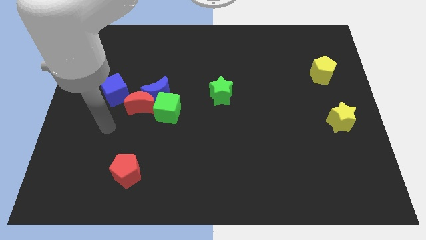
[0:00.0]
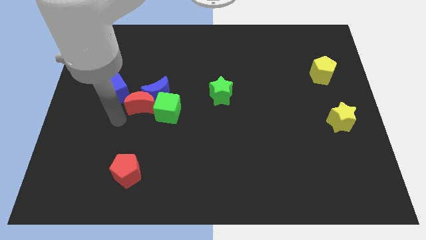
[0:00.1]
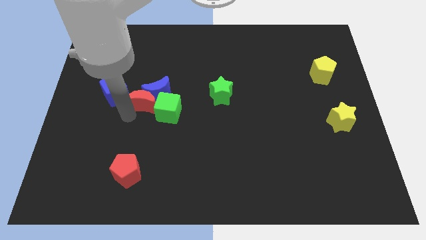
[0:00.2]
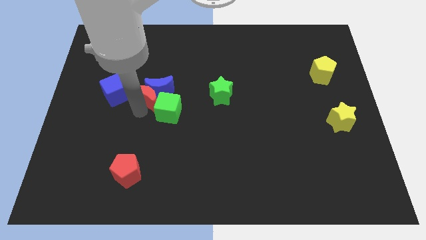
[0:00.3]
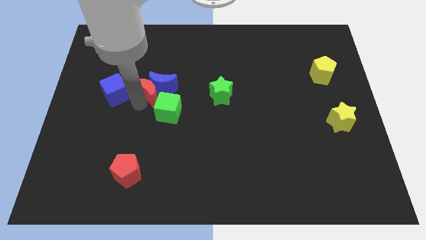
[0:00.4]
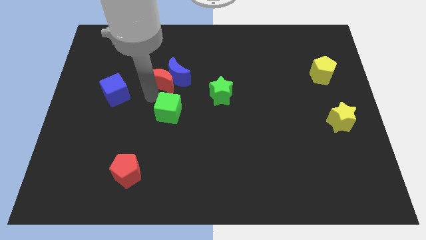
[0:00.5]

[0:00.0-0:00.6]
pull the green cube apart from the blue moon and red moon

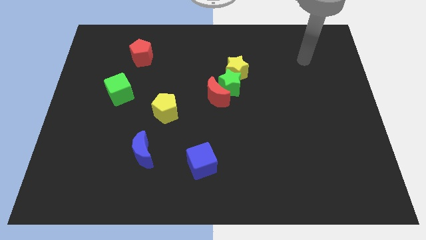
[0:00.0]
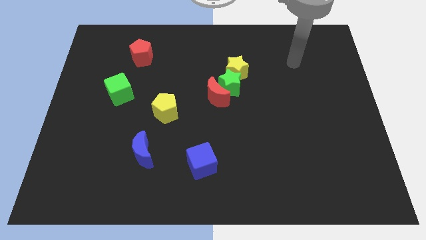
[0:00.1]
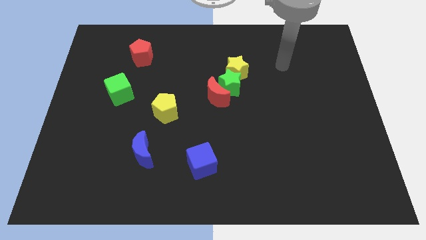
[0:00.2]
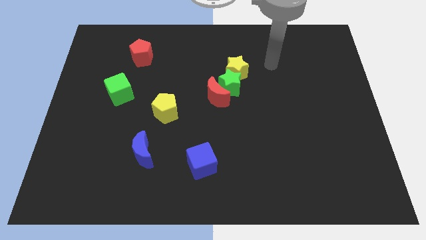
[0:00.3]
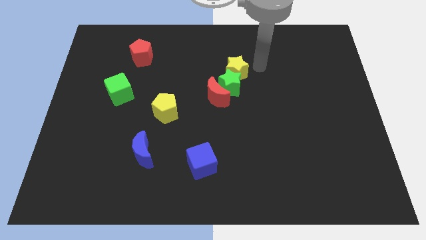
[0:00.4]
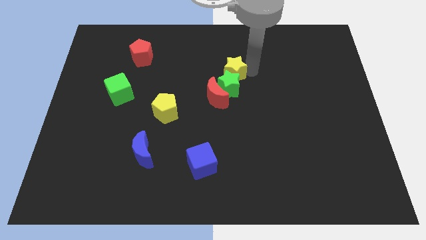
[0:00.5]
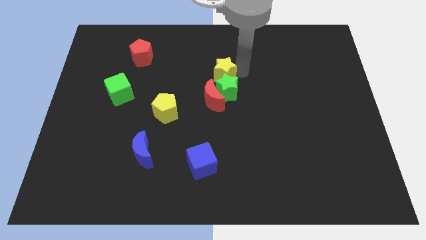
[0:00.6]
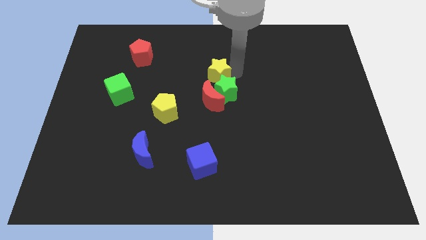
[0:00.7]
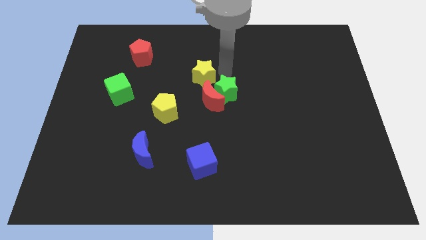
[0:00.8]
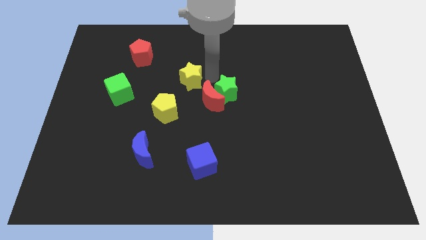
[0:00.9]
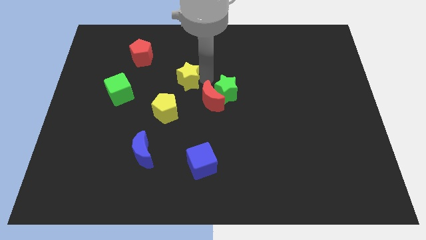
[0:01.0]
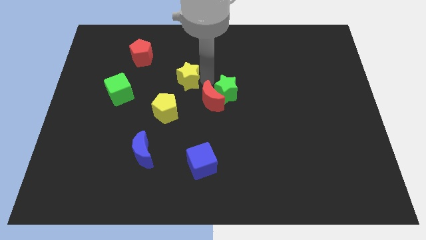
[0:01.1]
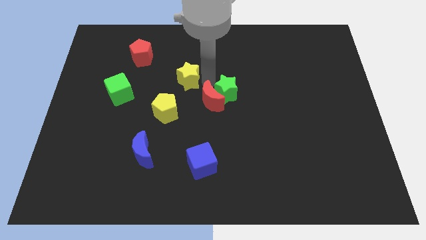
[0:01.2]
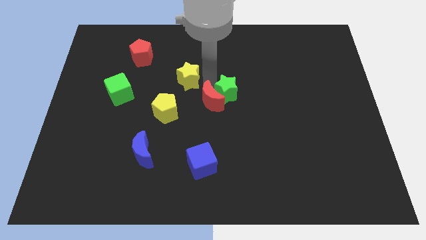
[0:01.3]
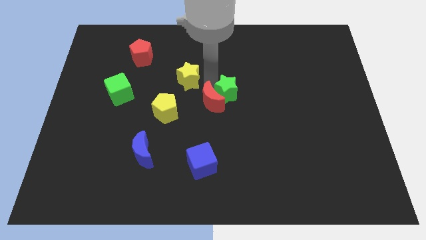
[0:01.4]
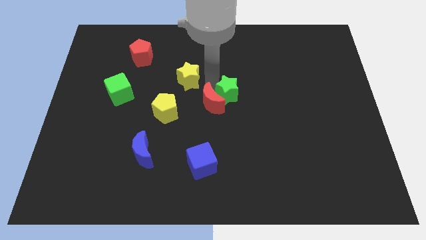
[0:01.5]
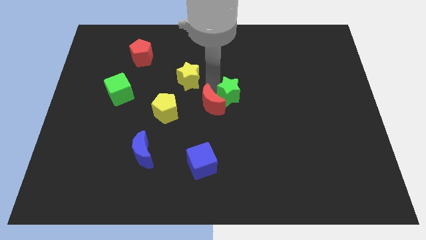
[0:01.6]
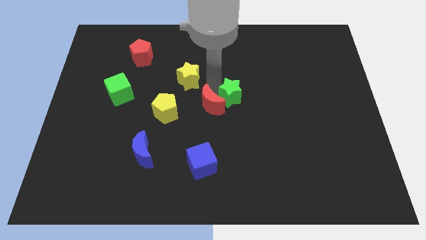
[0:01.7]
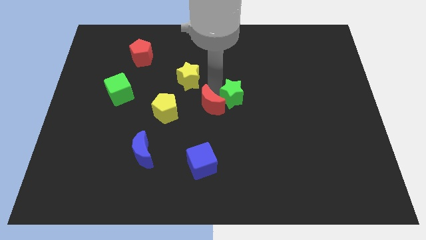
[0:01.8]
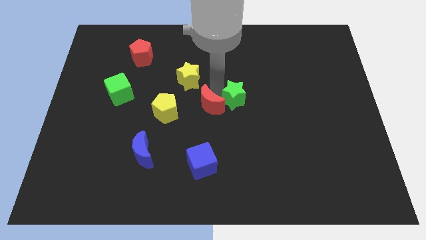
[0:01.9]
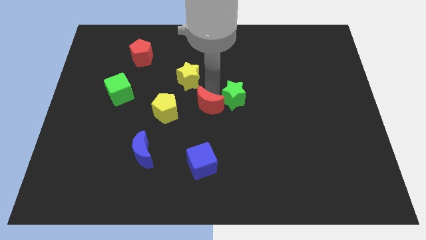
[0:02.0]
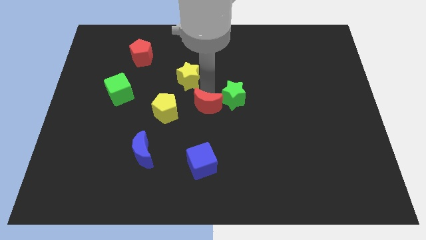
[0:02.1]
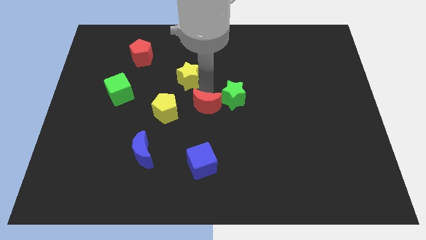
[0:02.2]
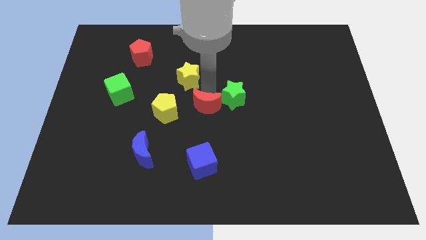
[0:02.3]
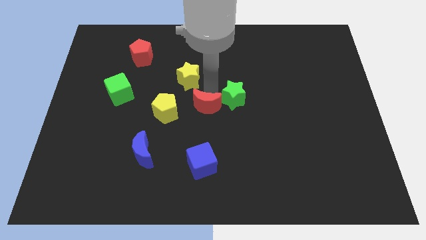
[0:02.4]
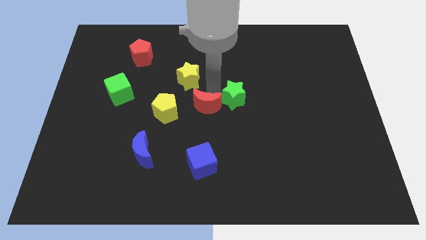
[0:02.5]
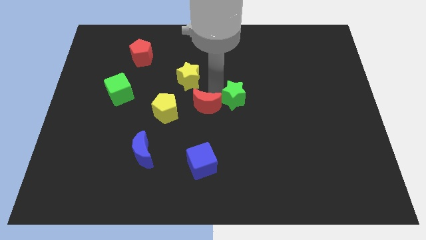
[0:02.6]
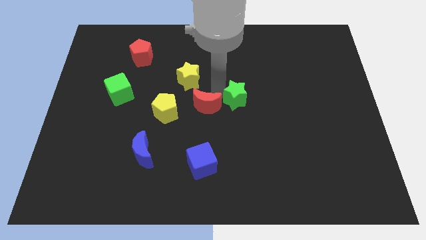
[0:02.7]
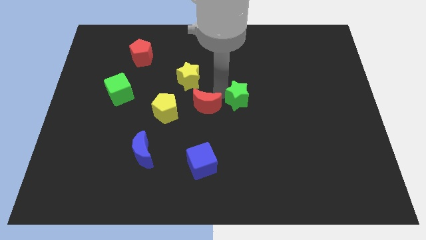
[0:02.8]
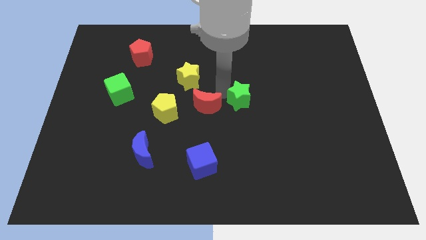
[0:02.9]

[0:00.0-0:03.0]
separate the green star from the red moon and yellow star

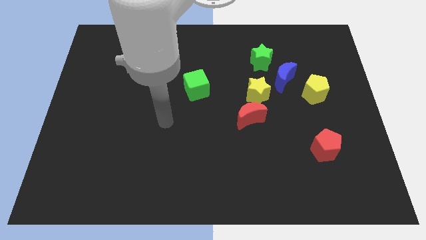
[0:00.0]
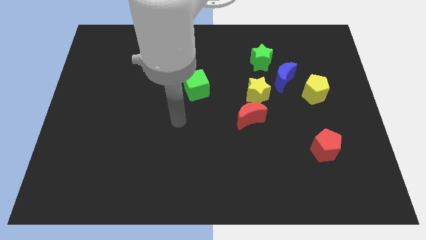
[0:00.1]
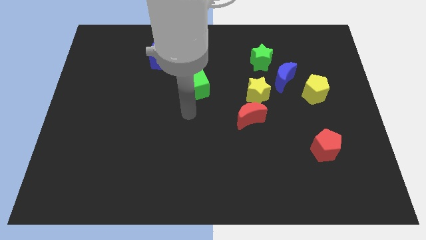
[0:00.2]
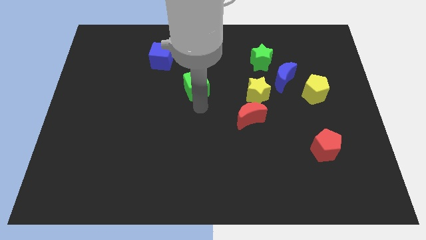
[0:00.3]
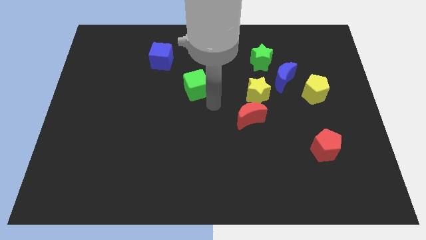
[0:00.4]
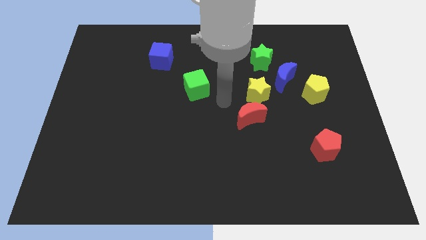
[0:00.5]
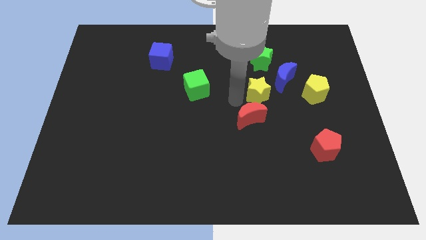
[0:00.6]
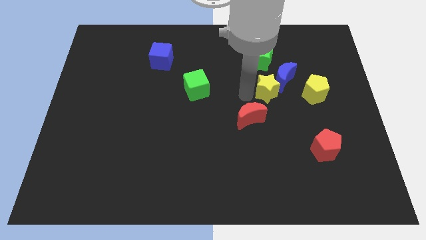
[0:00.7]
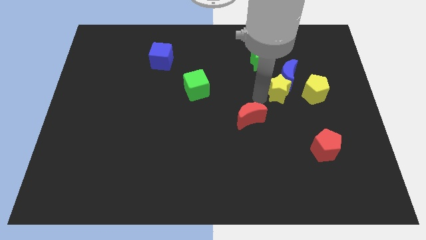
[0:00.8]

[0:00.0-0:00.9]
pull the red moon apart from the yellow star

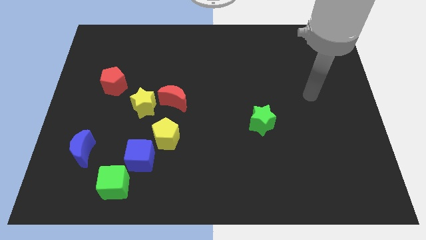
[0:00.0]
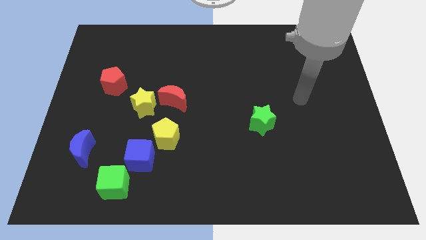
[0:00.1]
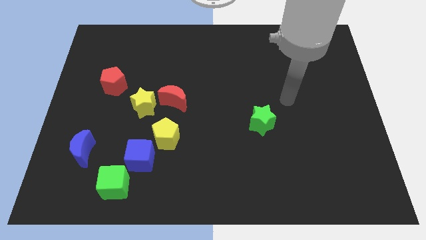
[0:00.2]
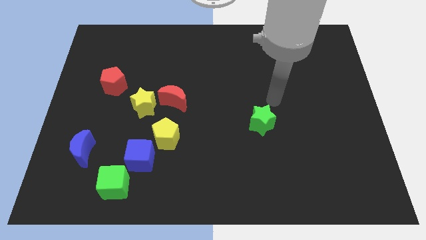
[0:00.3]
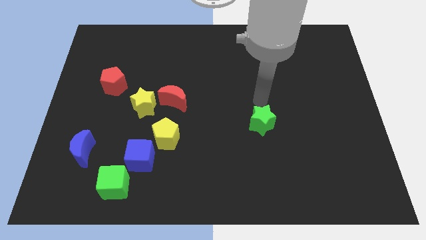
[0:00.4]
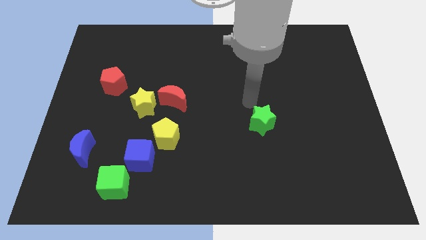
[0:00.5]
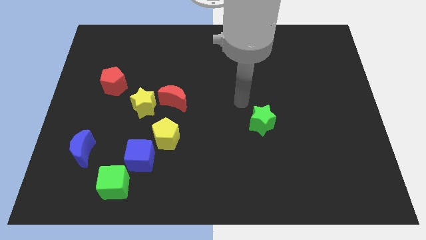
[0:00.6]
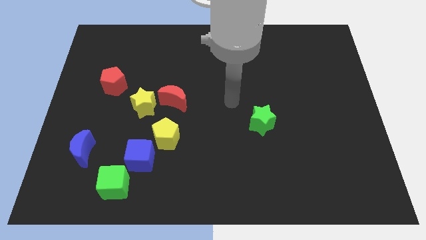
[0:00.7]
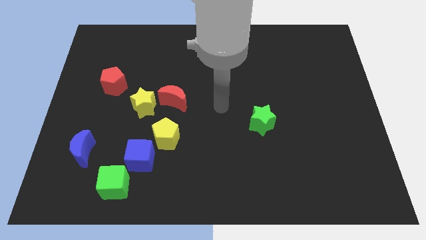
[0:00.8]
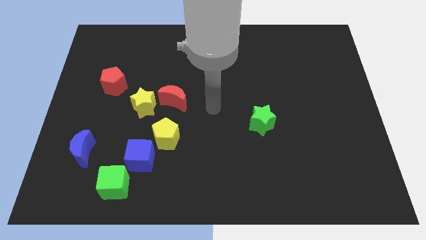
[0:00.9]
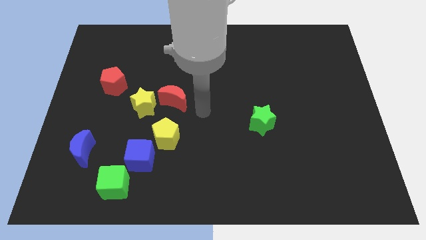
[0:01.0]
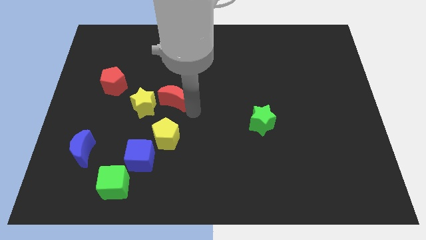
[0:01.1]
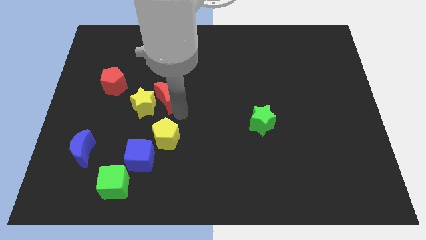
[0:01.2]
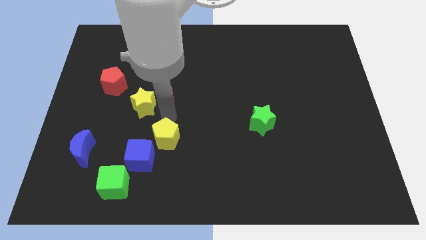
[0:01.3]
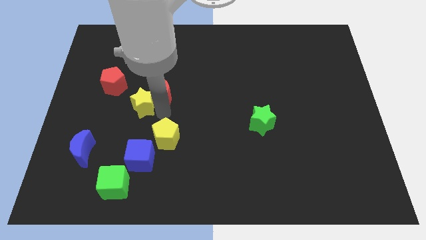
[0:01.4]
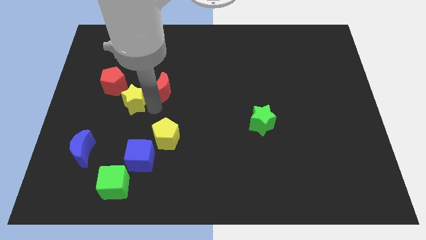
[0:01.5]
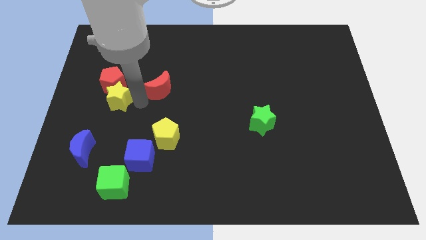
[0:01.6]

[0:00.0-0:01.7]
move the red moon away from the yellow star

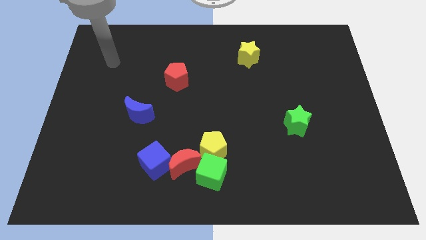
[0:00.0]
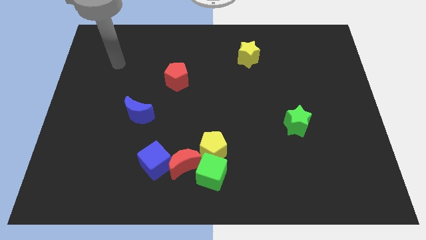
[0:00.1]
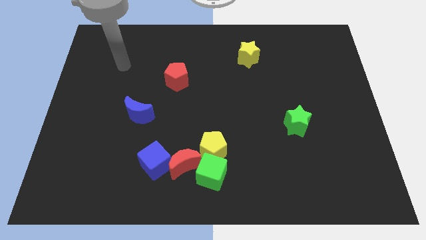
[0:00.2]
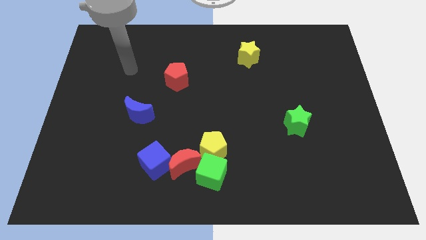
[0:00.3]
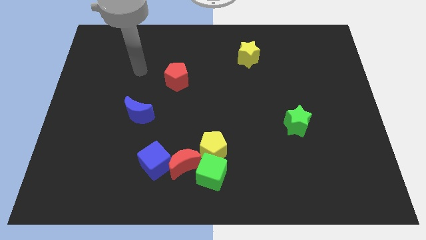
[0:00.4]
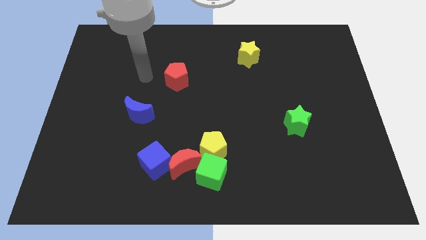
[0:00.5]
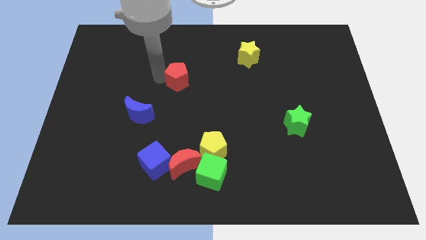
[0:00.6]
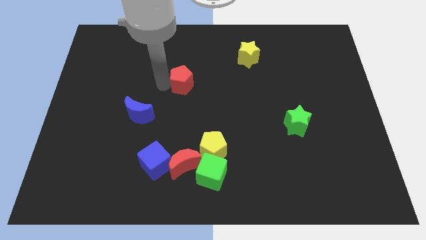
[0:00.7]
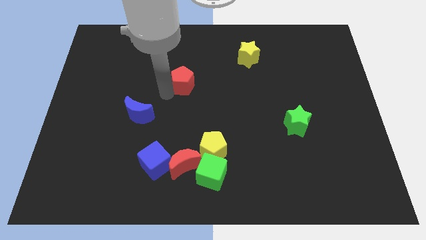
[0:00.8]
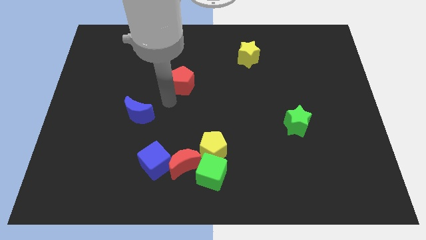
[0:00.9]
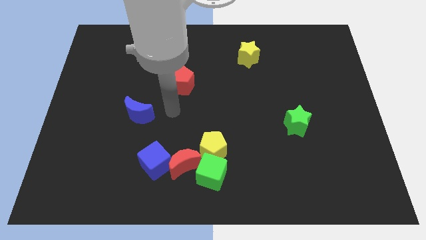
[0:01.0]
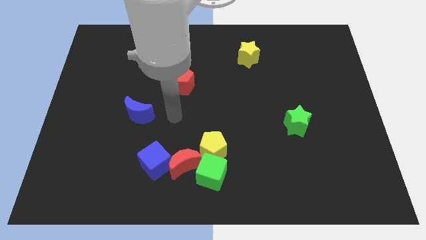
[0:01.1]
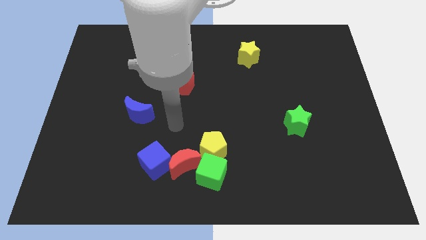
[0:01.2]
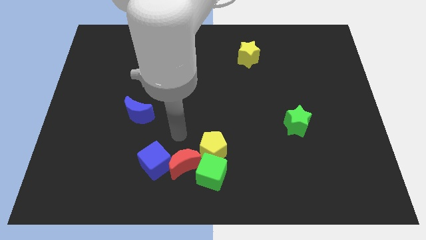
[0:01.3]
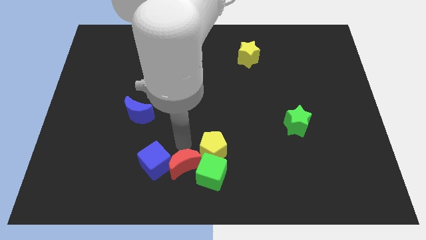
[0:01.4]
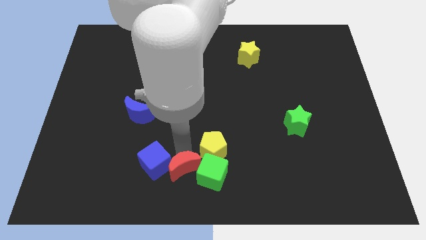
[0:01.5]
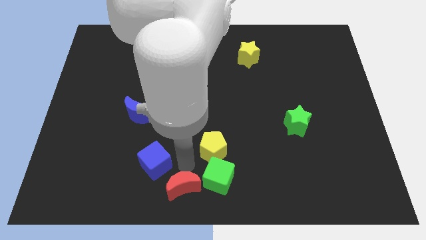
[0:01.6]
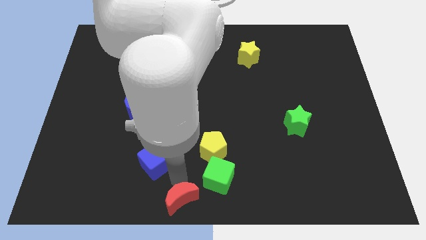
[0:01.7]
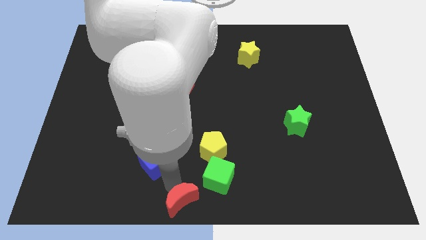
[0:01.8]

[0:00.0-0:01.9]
pull the blue cube apart from the red moon

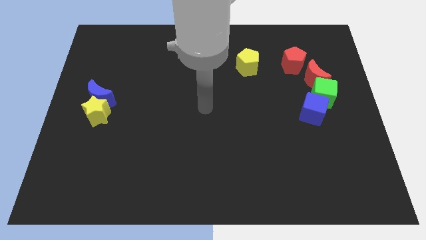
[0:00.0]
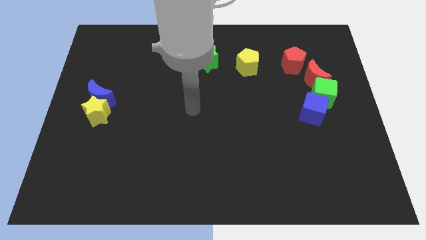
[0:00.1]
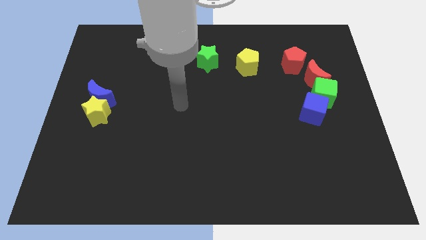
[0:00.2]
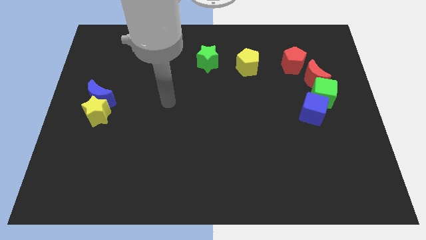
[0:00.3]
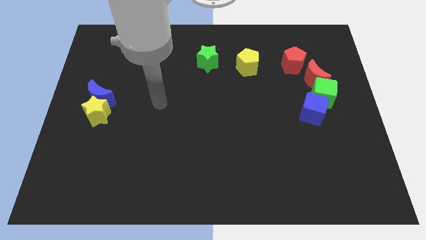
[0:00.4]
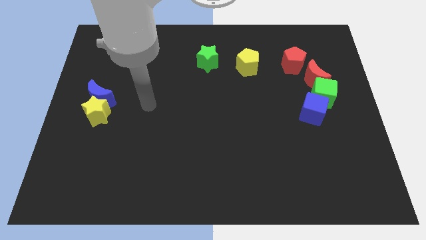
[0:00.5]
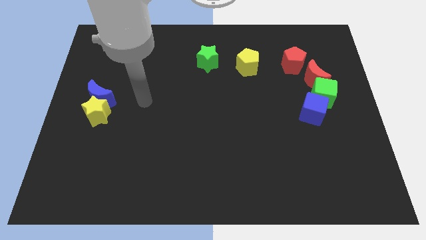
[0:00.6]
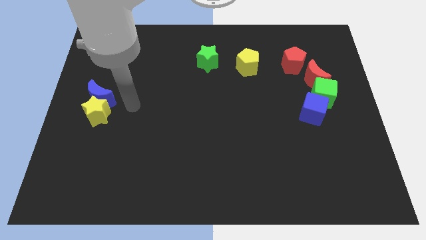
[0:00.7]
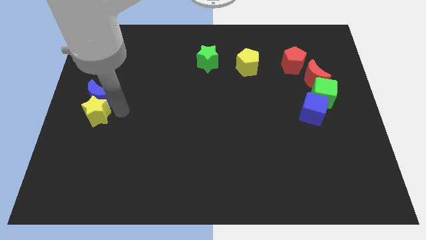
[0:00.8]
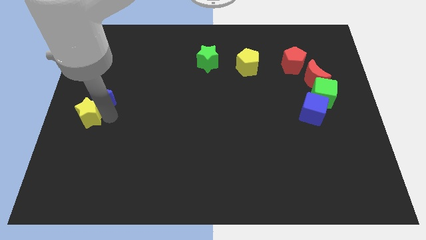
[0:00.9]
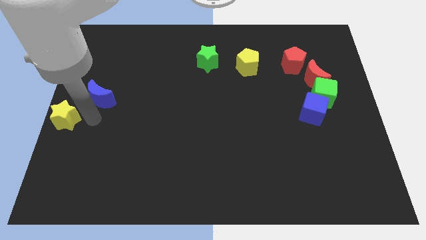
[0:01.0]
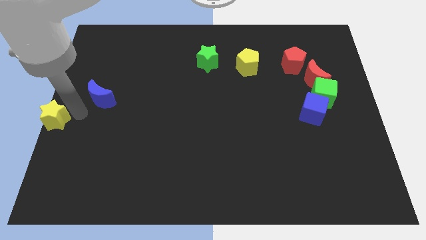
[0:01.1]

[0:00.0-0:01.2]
separate the blue moon from the yellow star

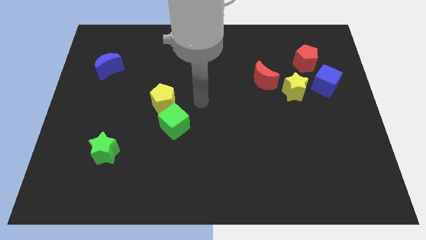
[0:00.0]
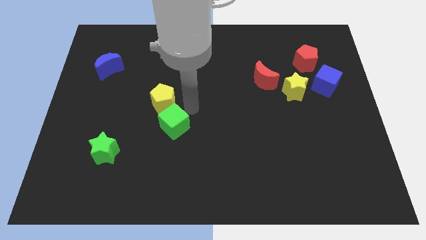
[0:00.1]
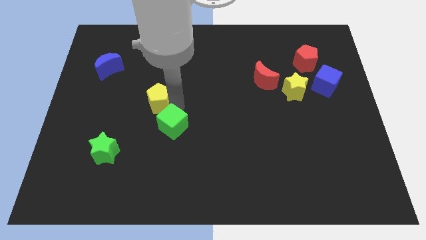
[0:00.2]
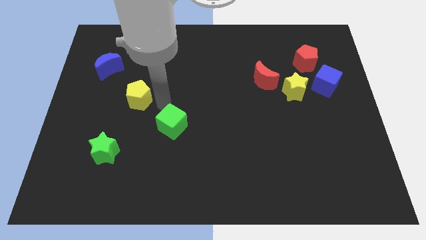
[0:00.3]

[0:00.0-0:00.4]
move the green cube away from the yellow pentagon
